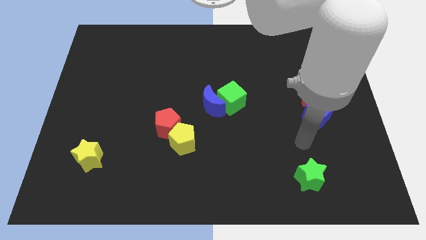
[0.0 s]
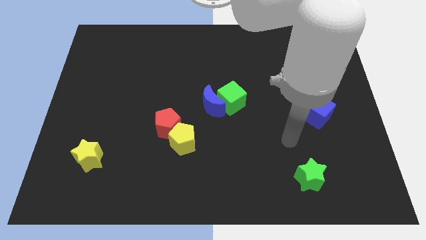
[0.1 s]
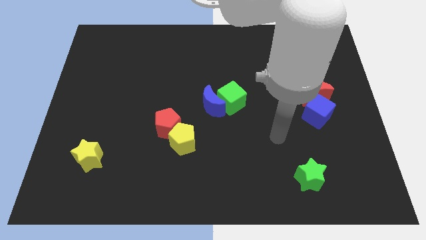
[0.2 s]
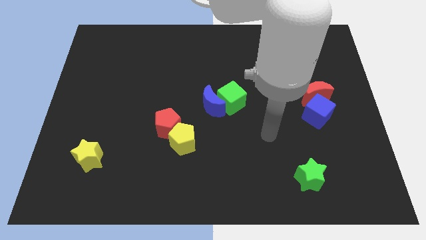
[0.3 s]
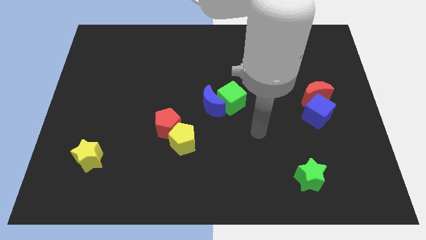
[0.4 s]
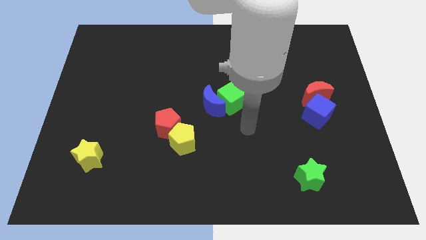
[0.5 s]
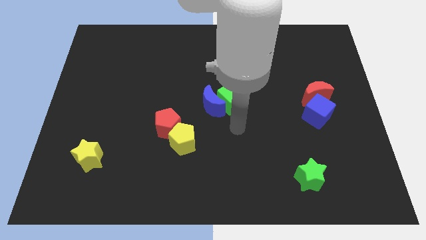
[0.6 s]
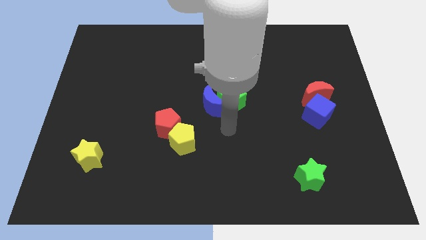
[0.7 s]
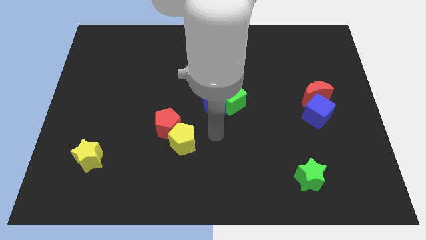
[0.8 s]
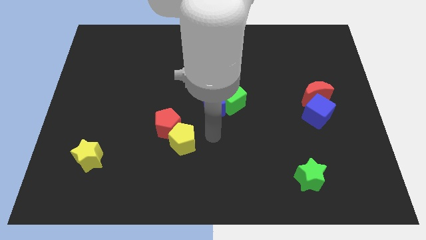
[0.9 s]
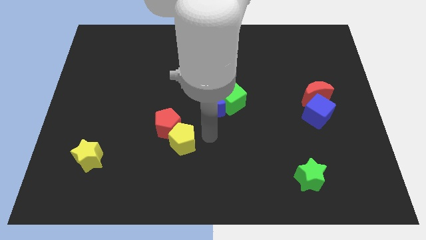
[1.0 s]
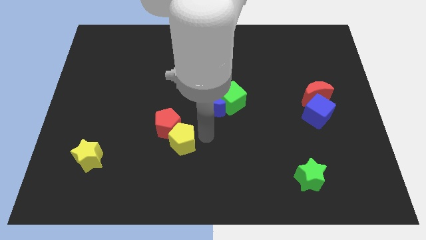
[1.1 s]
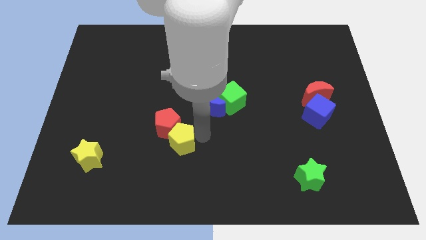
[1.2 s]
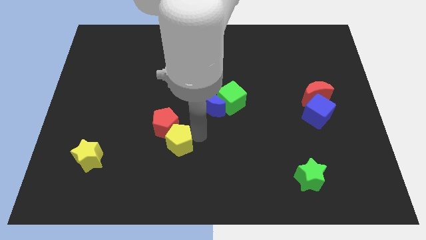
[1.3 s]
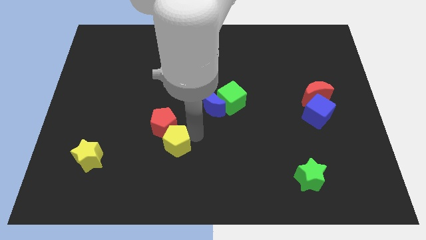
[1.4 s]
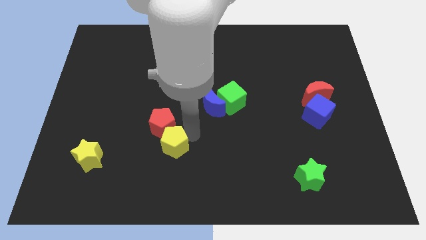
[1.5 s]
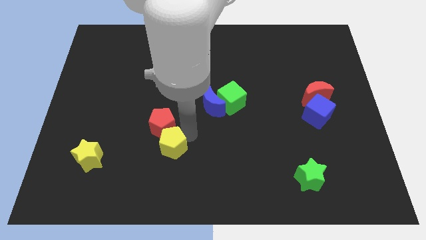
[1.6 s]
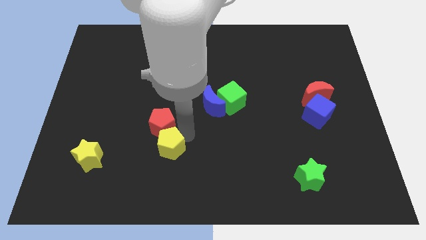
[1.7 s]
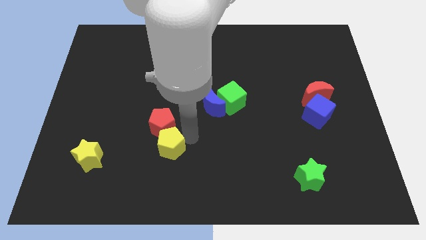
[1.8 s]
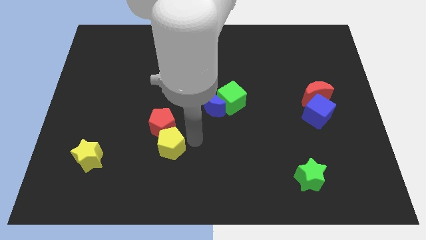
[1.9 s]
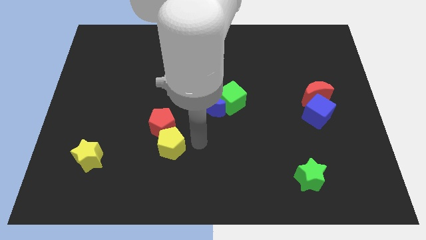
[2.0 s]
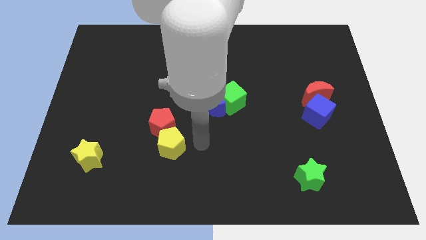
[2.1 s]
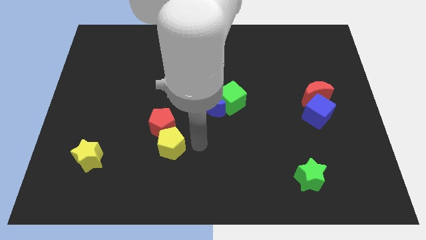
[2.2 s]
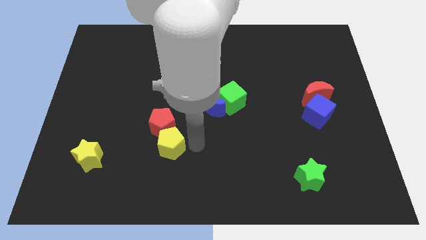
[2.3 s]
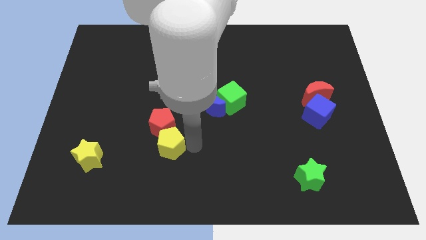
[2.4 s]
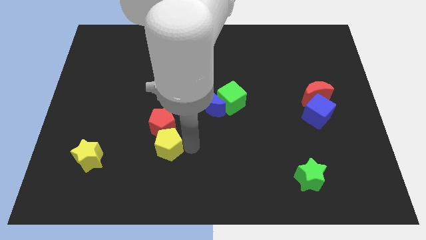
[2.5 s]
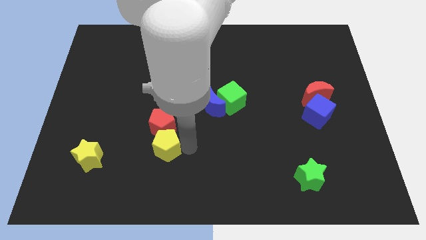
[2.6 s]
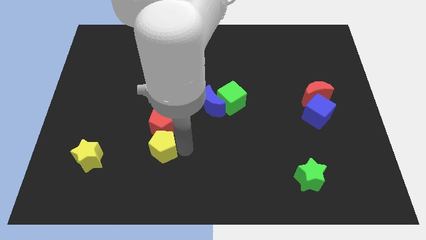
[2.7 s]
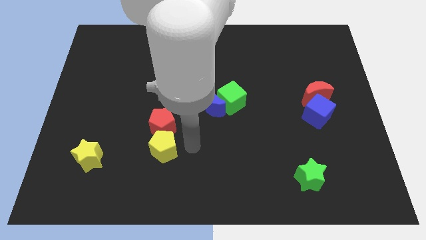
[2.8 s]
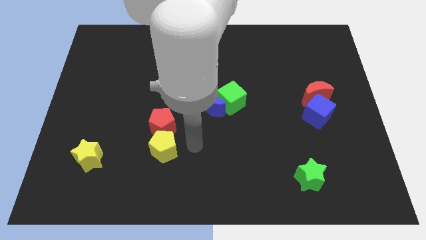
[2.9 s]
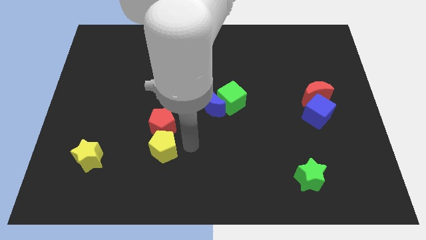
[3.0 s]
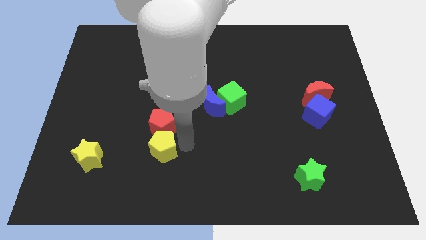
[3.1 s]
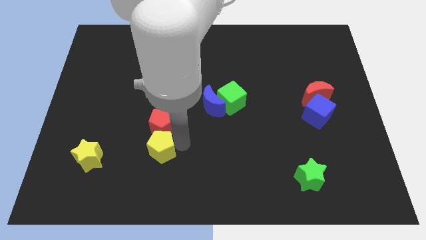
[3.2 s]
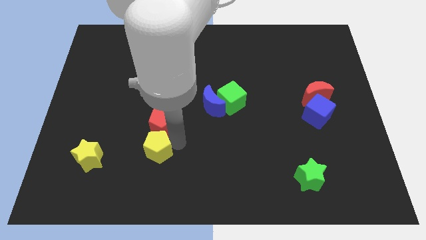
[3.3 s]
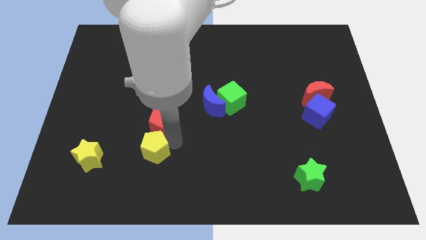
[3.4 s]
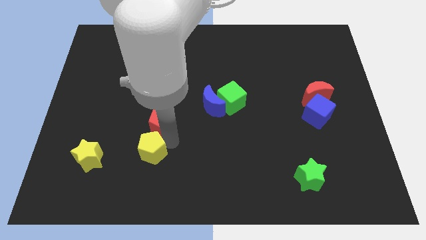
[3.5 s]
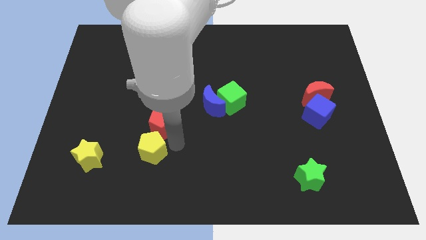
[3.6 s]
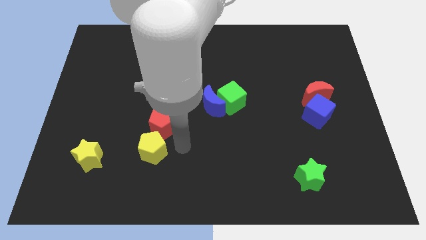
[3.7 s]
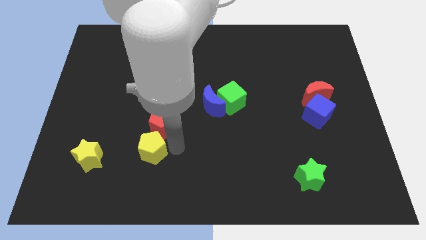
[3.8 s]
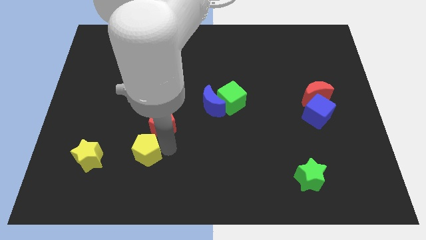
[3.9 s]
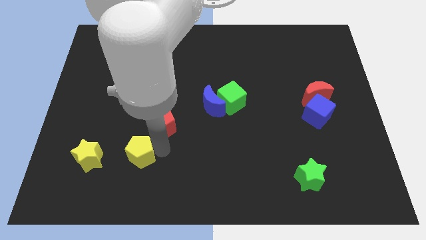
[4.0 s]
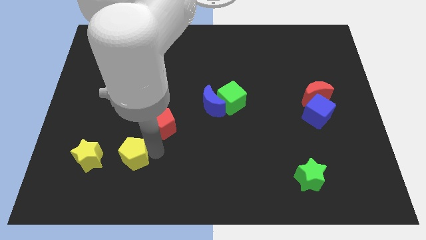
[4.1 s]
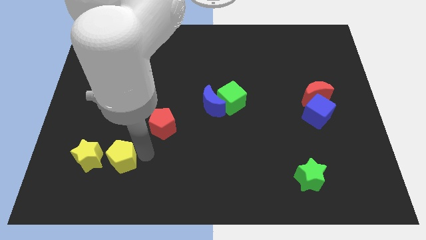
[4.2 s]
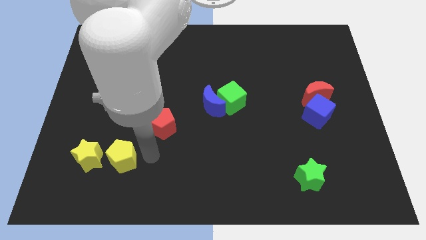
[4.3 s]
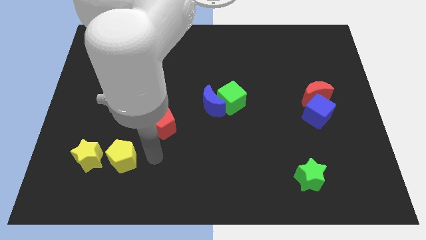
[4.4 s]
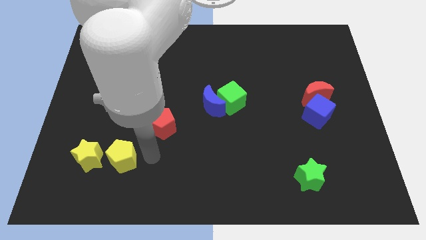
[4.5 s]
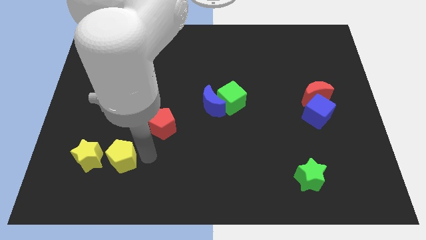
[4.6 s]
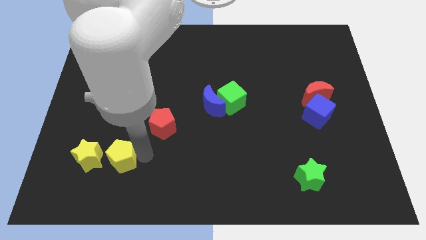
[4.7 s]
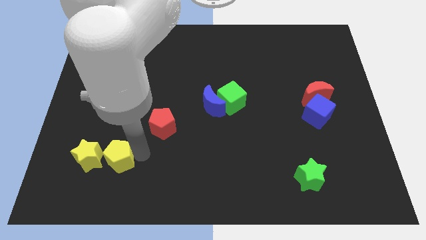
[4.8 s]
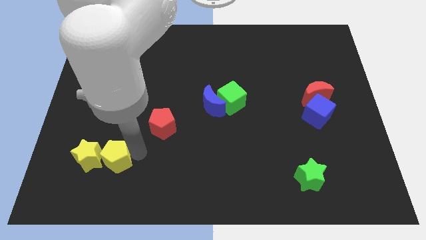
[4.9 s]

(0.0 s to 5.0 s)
slide the yellow pentagon towards the yellow star

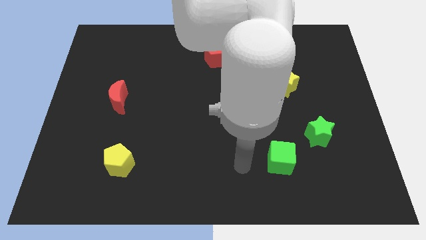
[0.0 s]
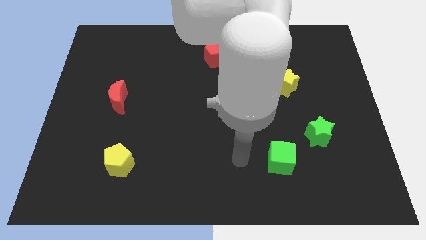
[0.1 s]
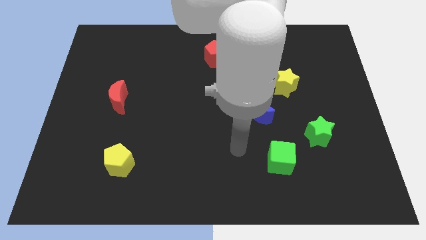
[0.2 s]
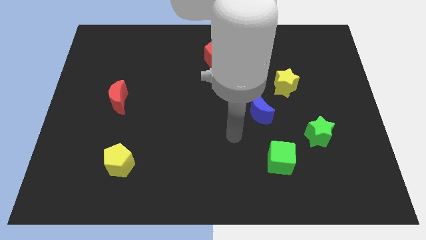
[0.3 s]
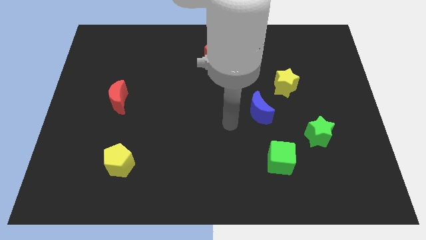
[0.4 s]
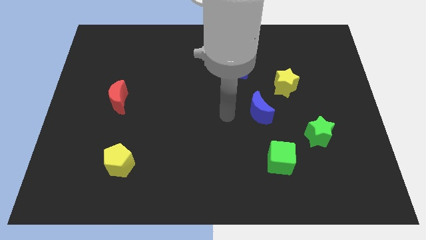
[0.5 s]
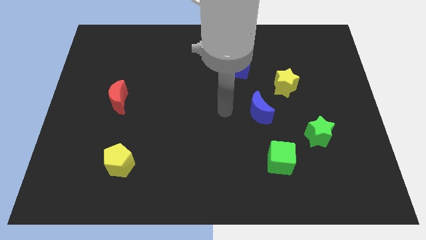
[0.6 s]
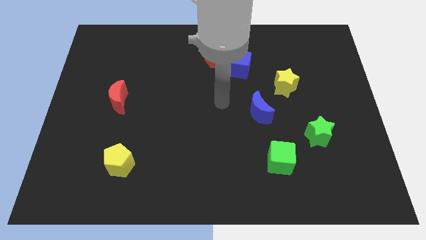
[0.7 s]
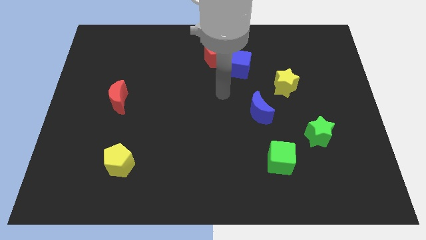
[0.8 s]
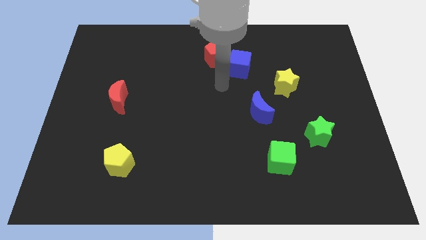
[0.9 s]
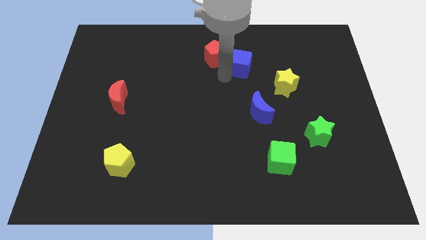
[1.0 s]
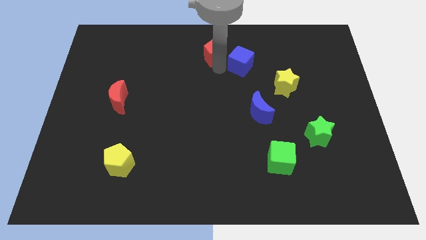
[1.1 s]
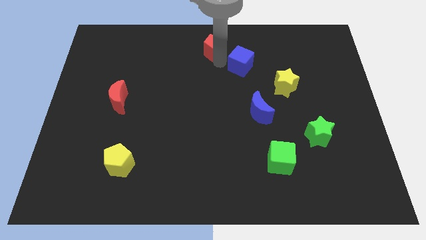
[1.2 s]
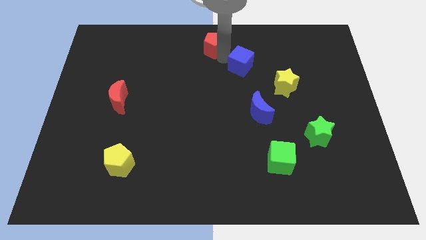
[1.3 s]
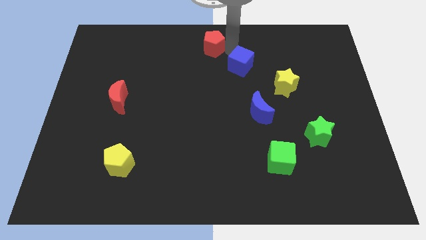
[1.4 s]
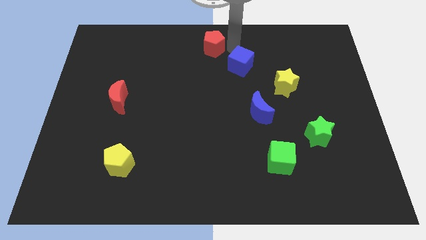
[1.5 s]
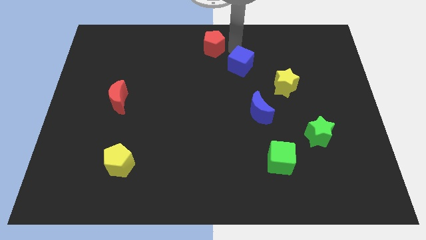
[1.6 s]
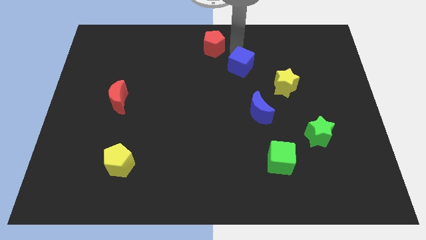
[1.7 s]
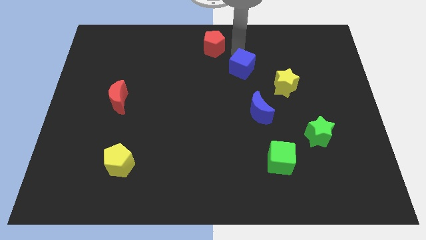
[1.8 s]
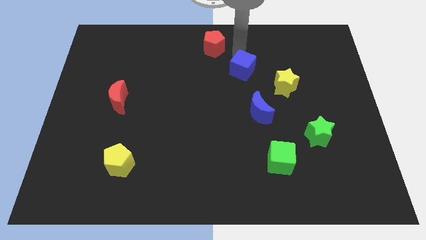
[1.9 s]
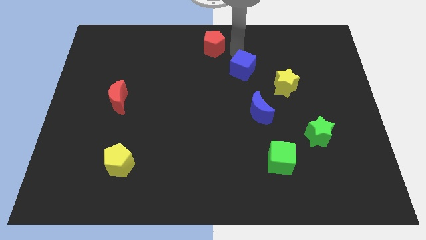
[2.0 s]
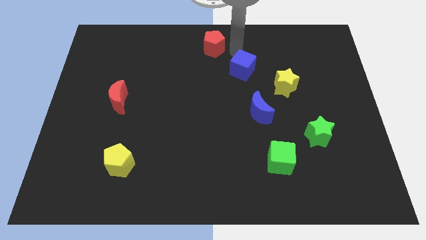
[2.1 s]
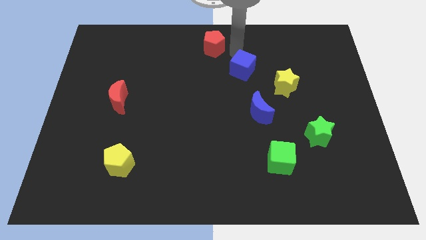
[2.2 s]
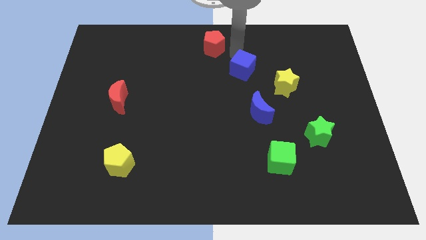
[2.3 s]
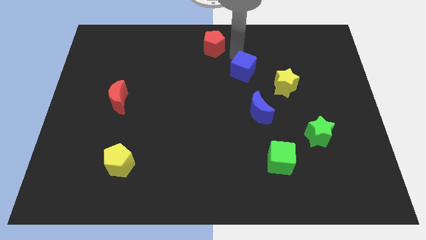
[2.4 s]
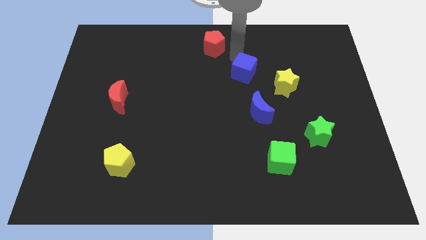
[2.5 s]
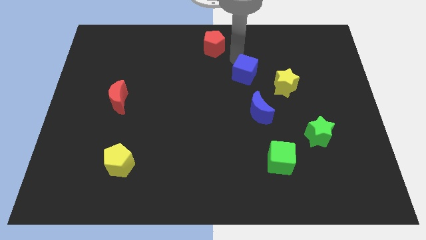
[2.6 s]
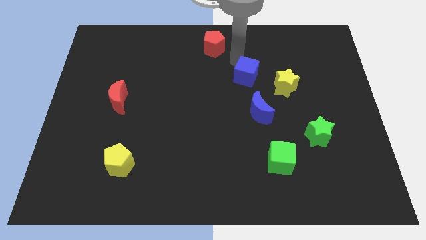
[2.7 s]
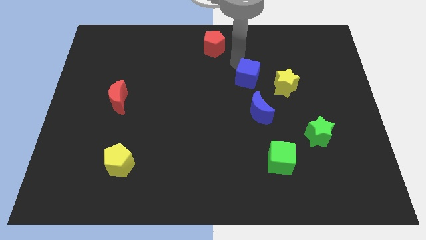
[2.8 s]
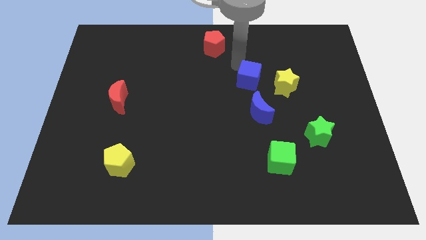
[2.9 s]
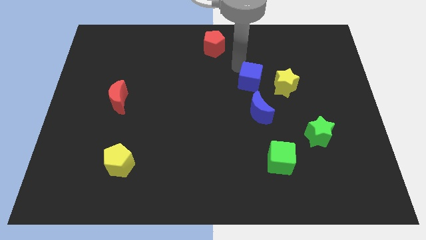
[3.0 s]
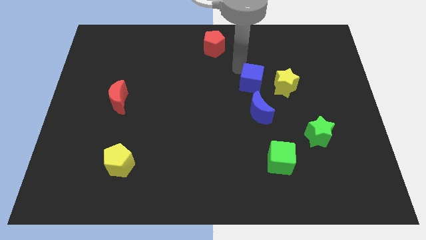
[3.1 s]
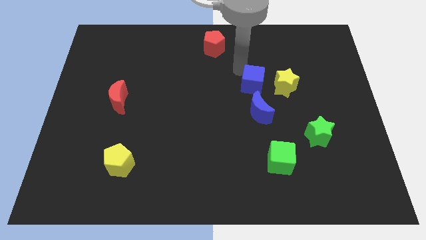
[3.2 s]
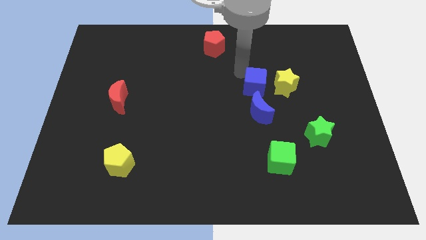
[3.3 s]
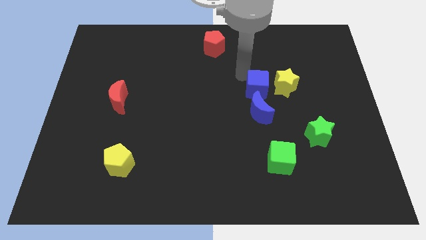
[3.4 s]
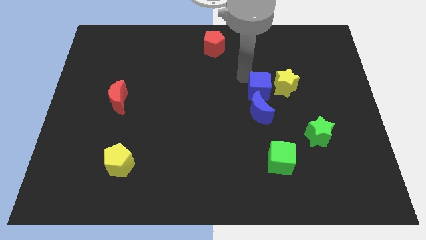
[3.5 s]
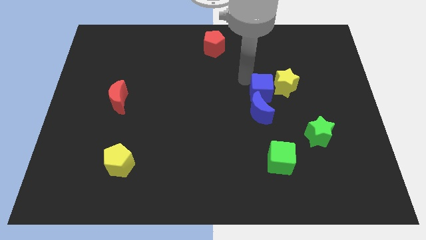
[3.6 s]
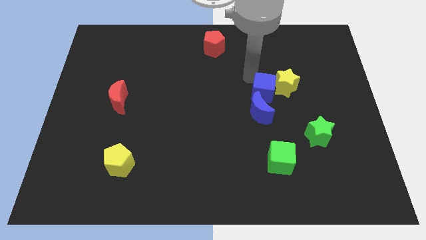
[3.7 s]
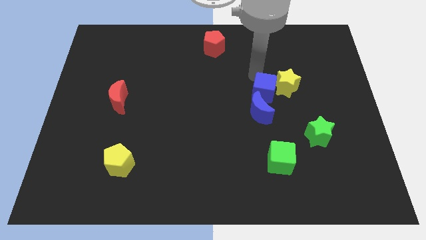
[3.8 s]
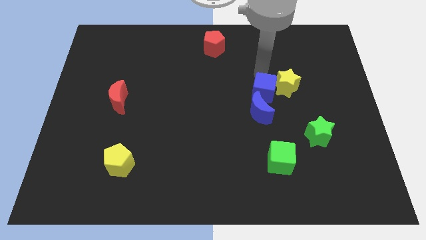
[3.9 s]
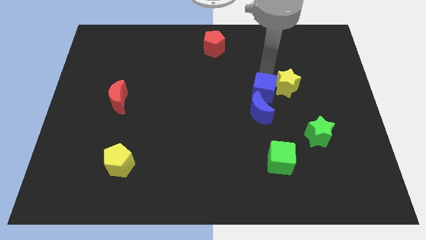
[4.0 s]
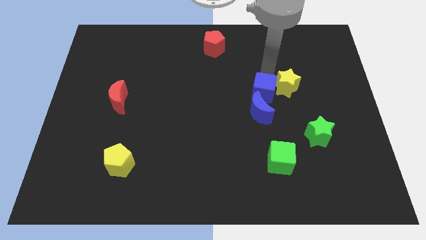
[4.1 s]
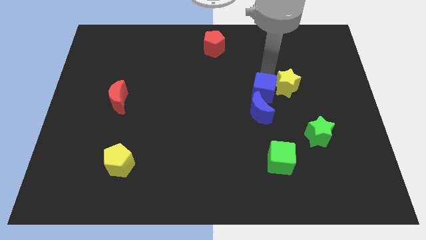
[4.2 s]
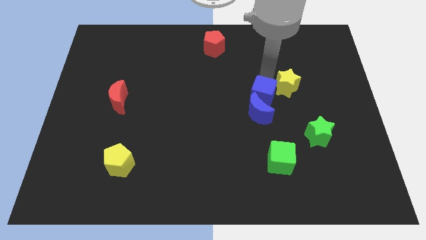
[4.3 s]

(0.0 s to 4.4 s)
slide the blue cube next to the blue moon
